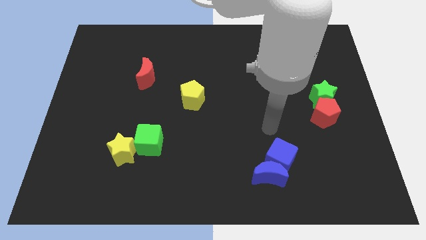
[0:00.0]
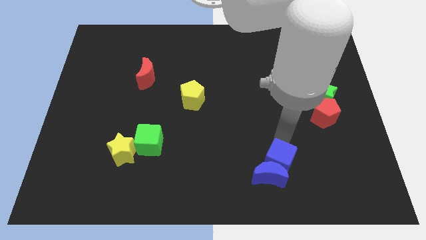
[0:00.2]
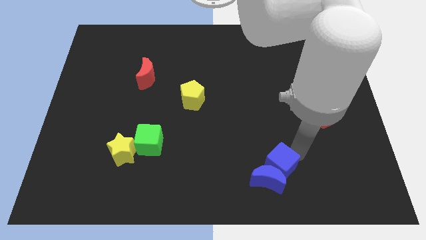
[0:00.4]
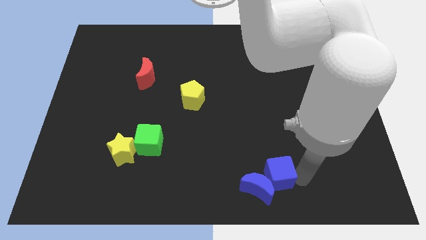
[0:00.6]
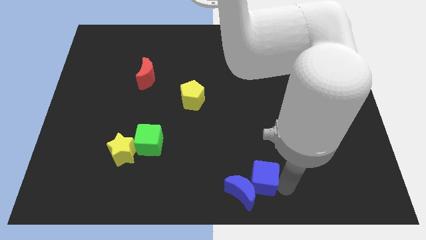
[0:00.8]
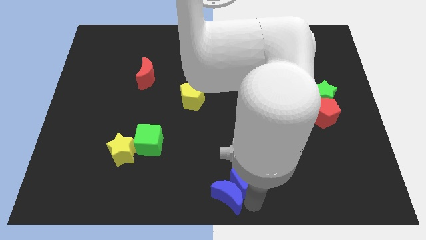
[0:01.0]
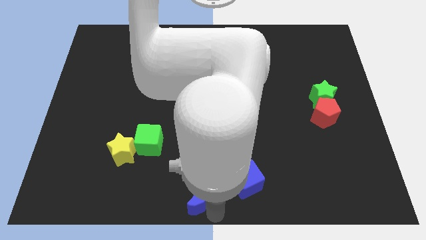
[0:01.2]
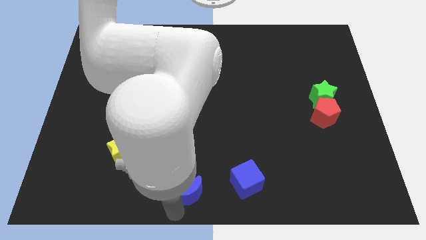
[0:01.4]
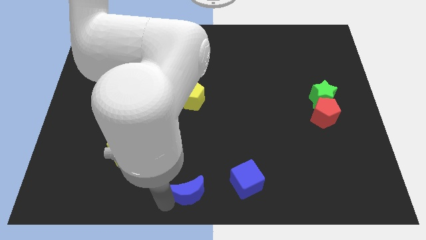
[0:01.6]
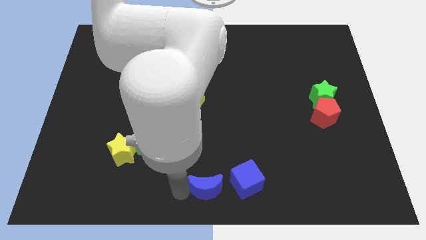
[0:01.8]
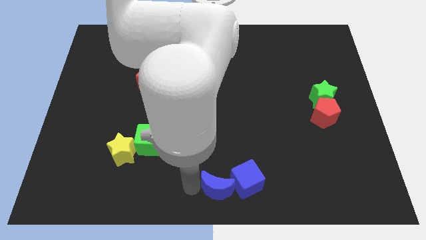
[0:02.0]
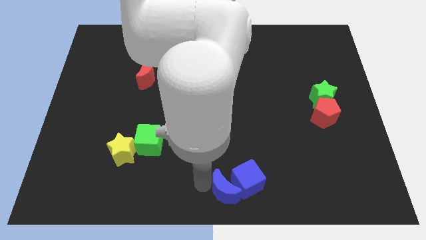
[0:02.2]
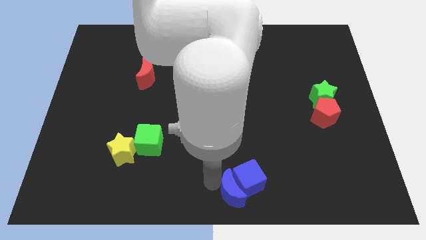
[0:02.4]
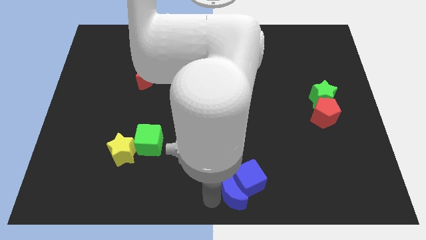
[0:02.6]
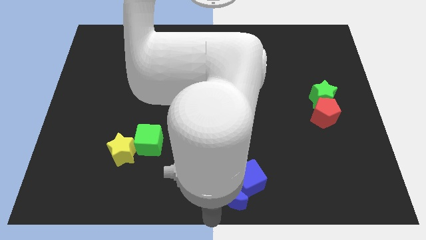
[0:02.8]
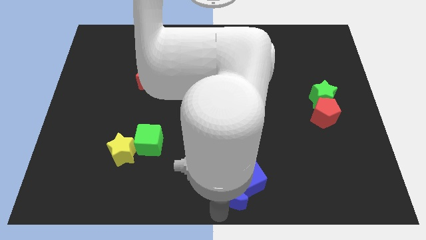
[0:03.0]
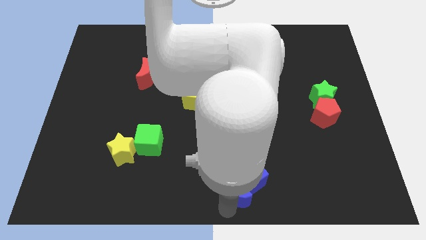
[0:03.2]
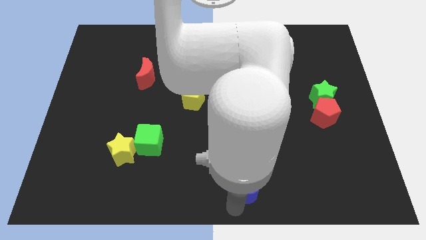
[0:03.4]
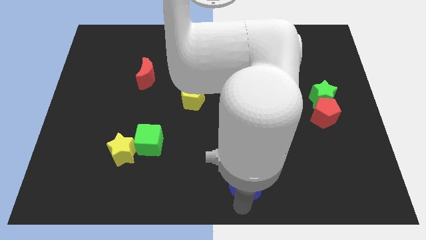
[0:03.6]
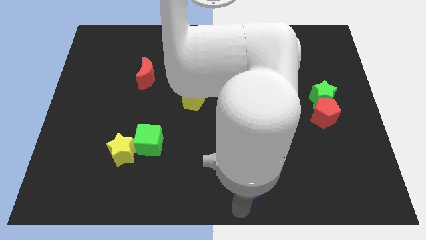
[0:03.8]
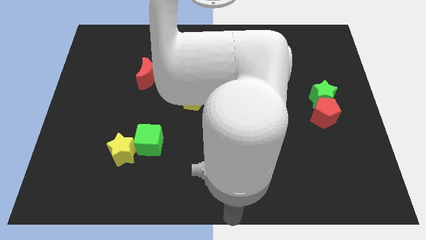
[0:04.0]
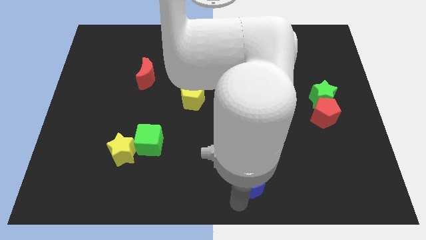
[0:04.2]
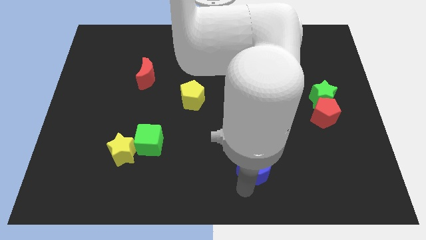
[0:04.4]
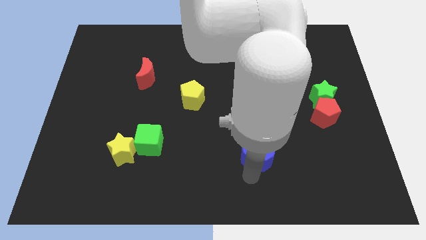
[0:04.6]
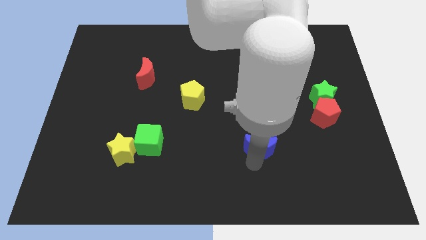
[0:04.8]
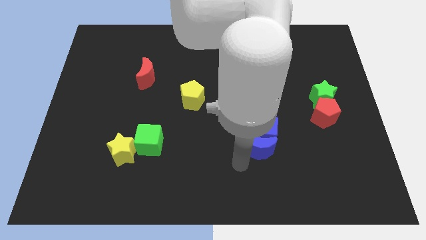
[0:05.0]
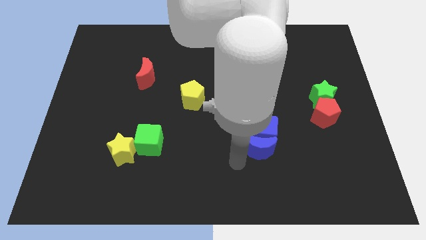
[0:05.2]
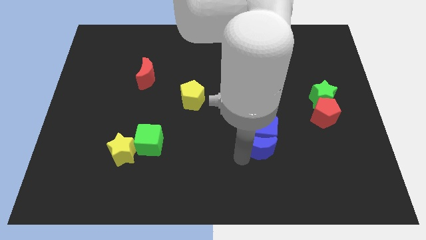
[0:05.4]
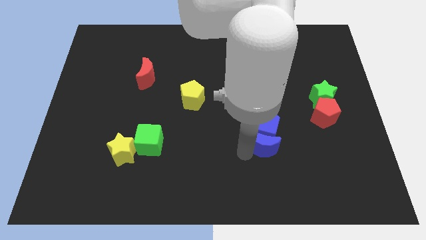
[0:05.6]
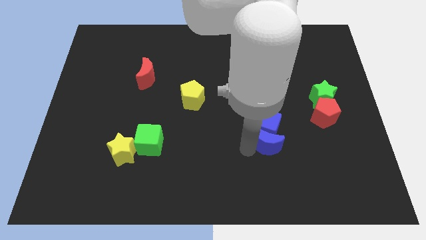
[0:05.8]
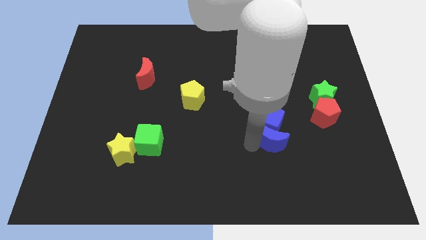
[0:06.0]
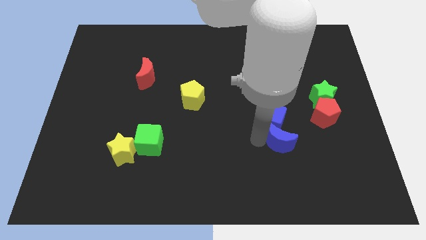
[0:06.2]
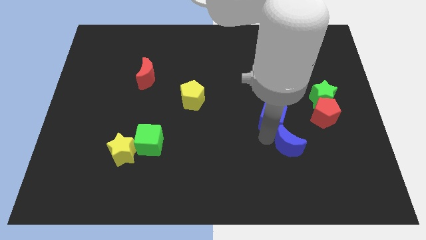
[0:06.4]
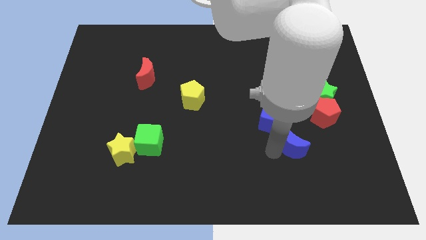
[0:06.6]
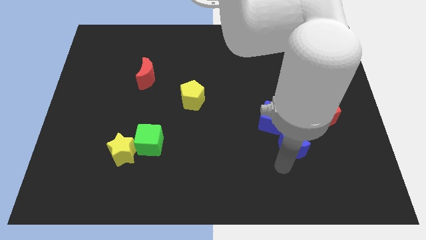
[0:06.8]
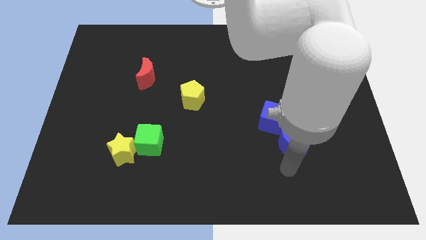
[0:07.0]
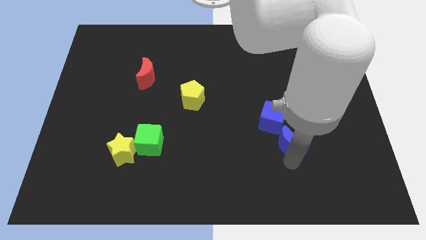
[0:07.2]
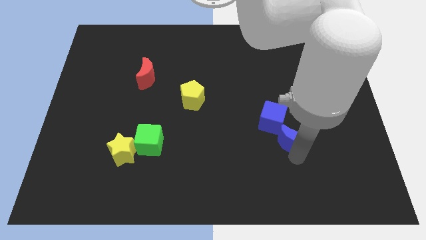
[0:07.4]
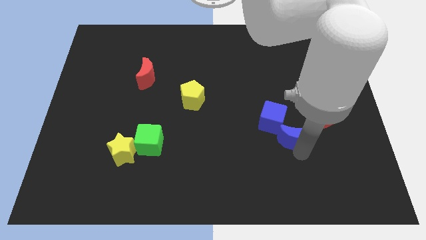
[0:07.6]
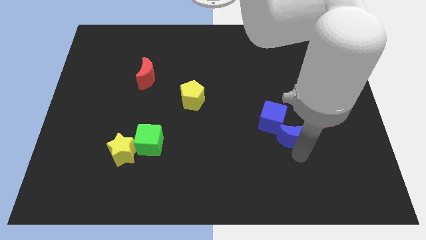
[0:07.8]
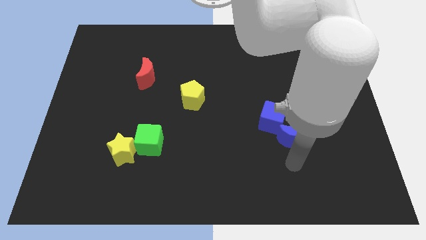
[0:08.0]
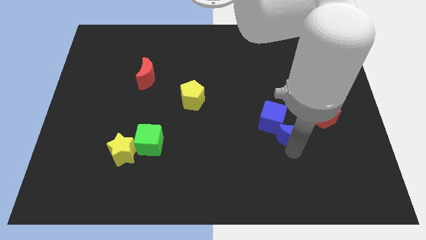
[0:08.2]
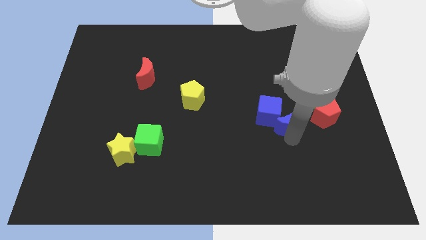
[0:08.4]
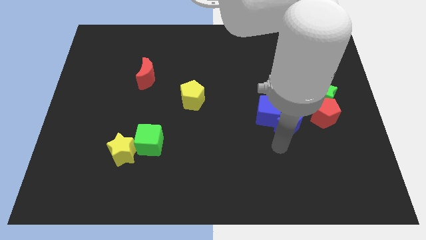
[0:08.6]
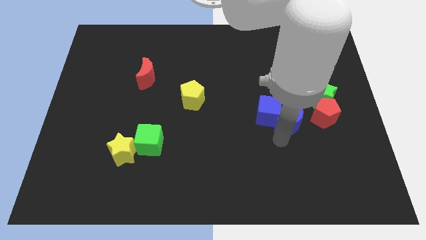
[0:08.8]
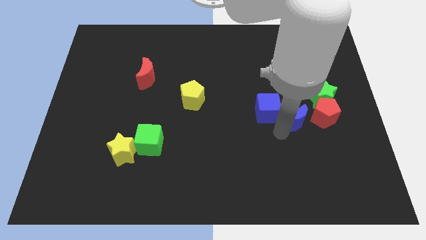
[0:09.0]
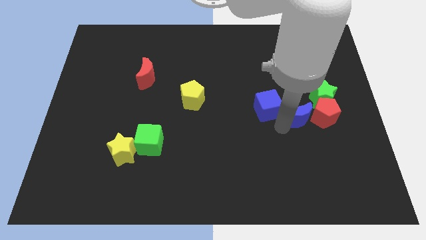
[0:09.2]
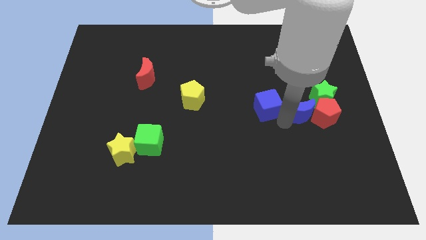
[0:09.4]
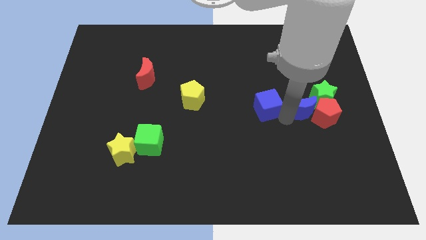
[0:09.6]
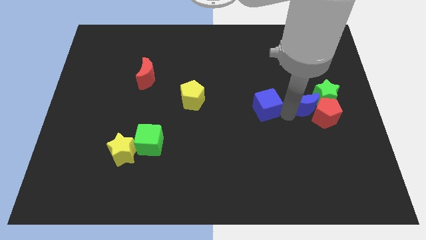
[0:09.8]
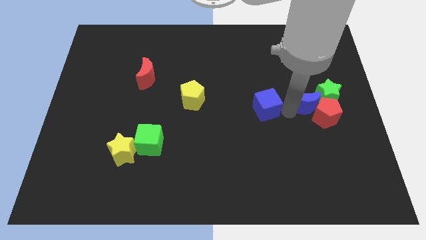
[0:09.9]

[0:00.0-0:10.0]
slide the blue moon towards the green star

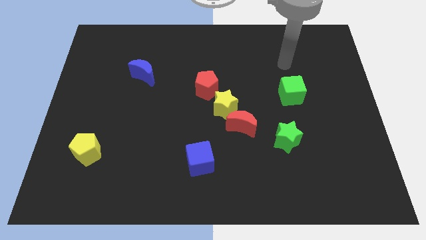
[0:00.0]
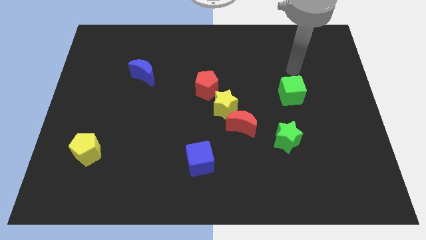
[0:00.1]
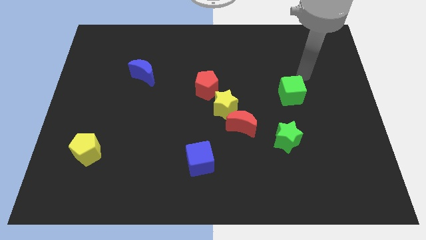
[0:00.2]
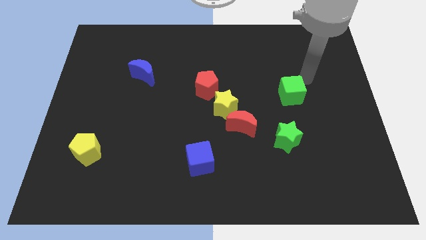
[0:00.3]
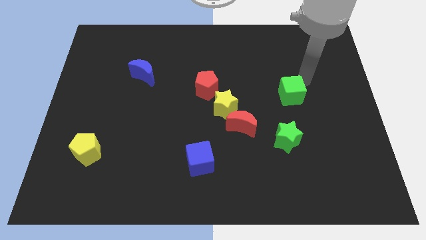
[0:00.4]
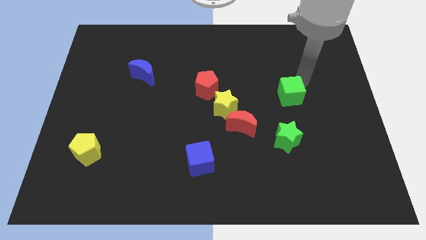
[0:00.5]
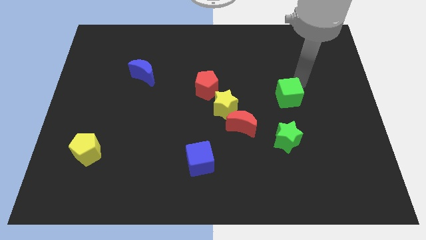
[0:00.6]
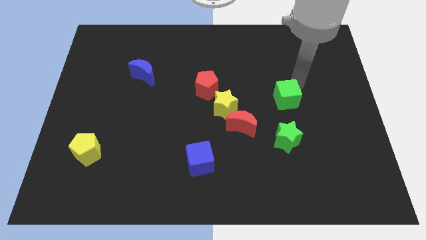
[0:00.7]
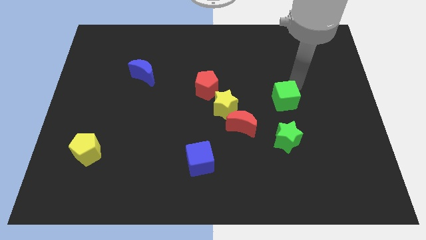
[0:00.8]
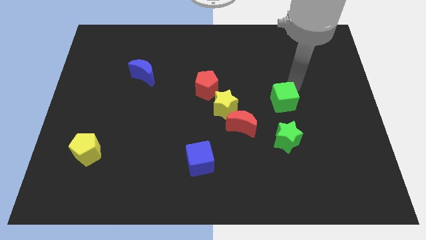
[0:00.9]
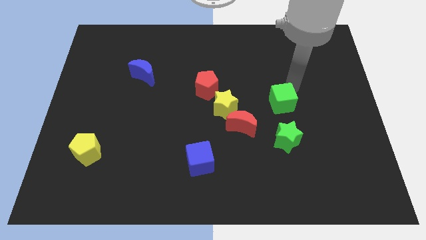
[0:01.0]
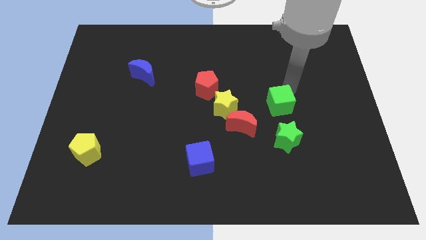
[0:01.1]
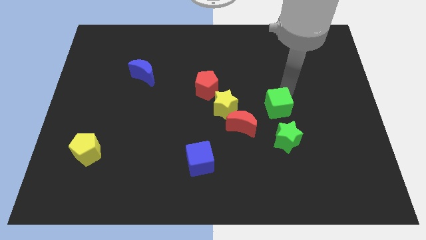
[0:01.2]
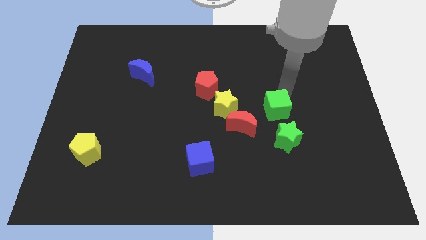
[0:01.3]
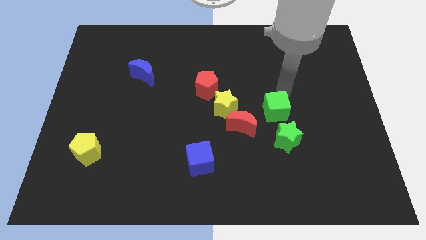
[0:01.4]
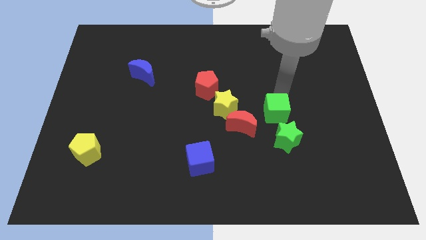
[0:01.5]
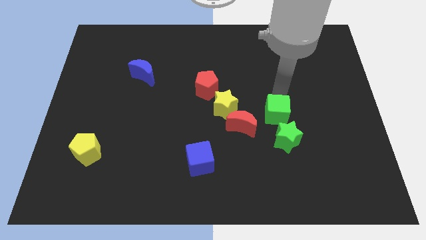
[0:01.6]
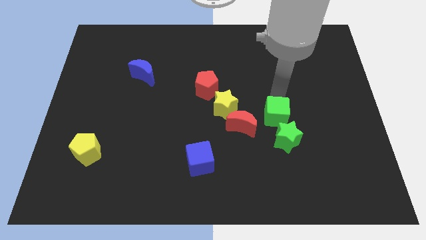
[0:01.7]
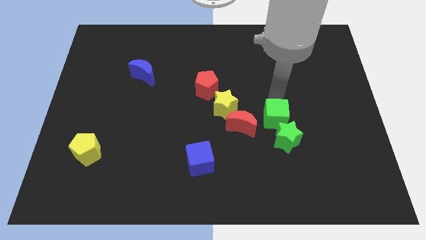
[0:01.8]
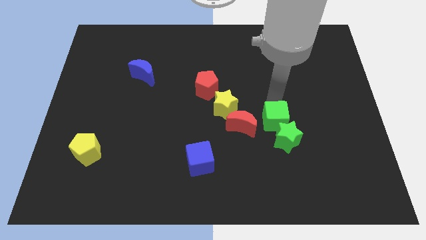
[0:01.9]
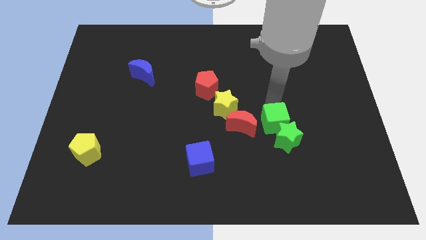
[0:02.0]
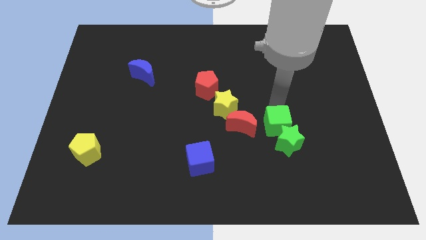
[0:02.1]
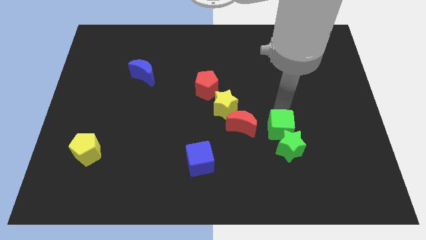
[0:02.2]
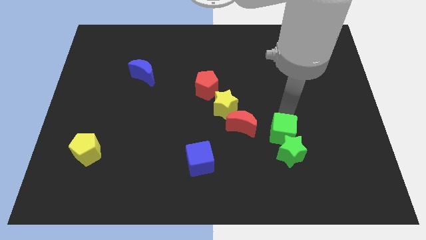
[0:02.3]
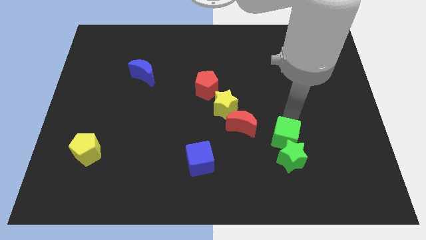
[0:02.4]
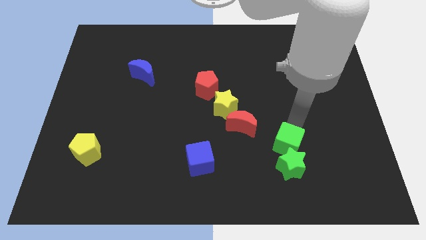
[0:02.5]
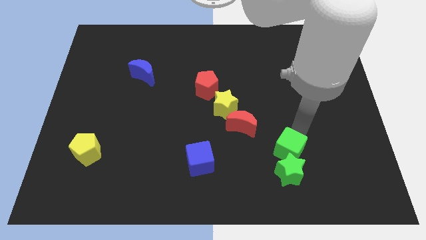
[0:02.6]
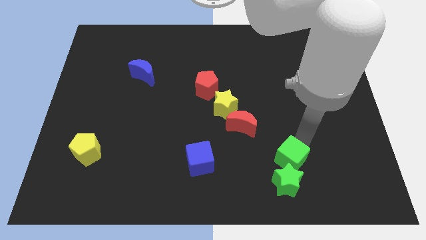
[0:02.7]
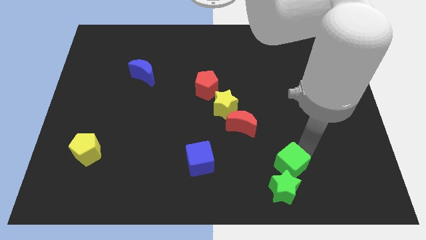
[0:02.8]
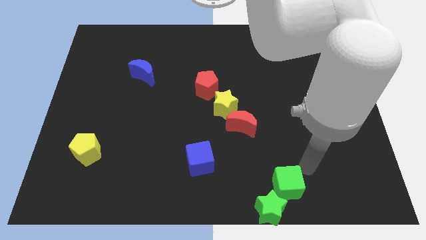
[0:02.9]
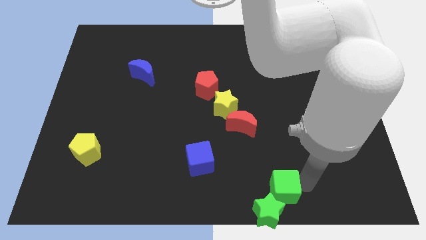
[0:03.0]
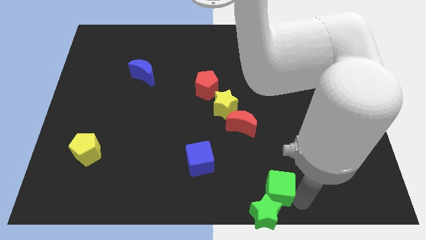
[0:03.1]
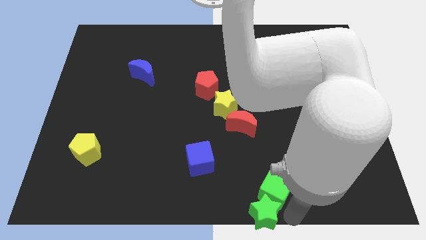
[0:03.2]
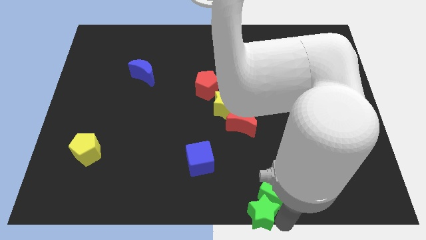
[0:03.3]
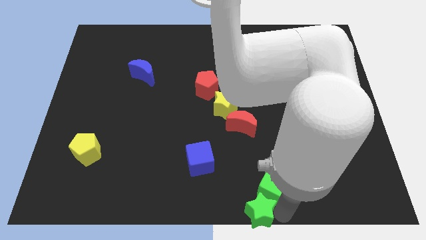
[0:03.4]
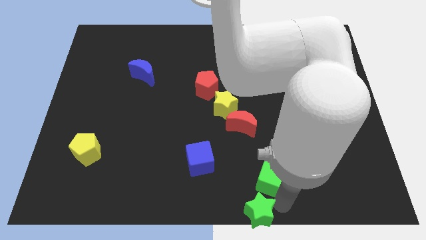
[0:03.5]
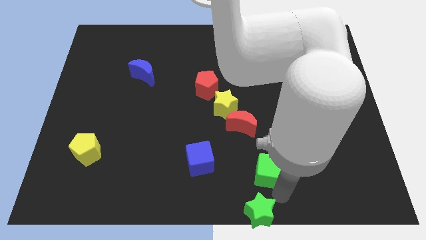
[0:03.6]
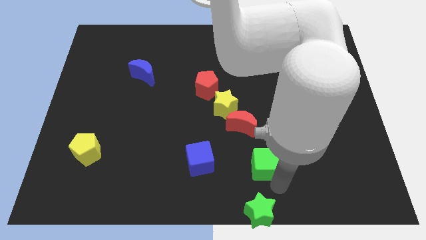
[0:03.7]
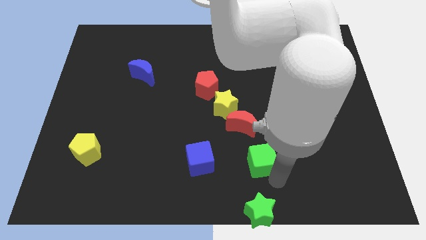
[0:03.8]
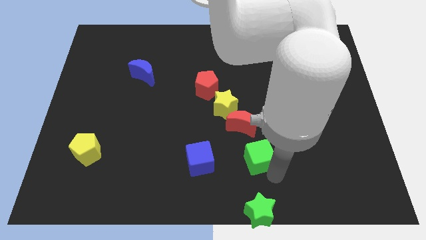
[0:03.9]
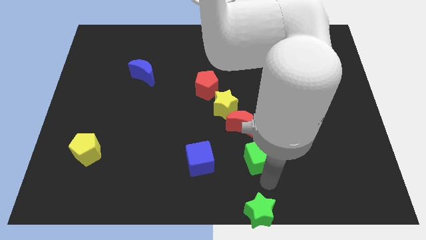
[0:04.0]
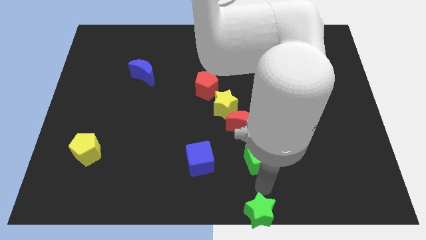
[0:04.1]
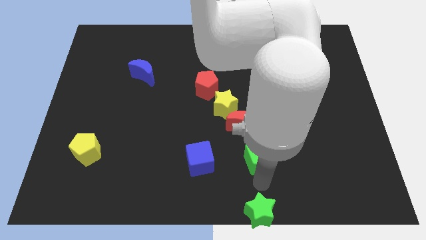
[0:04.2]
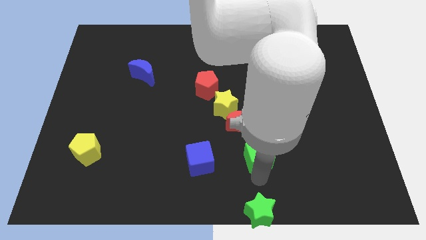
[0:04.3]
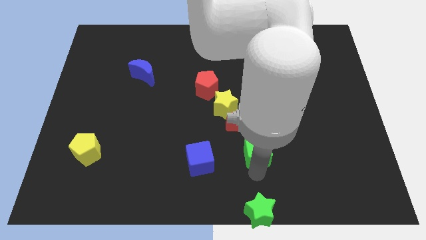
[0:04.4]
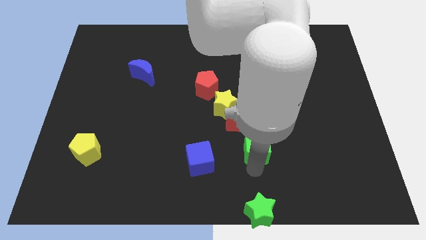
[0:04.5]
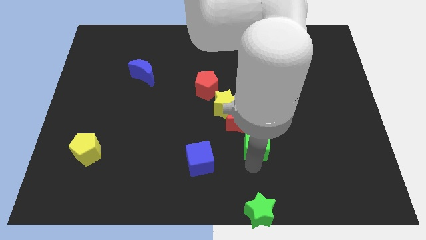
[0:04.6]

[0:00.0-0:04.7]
slide the green cube next to the red moon
